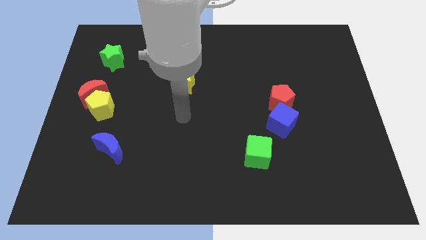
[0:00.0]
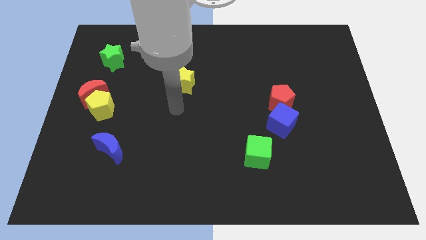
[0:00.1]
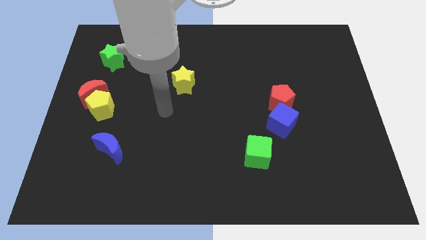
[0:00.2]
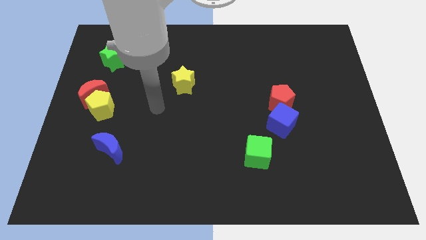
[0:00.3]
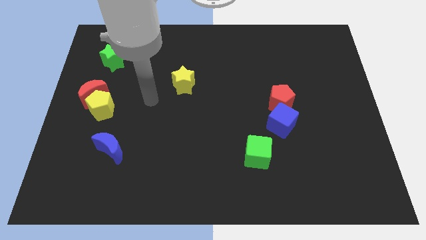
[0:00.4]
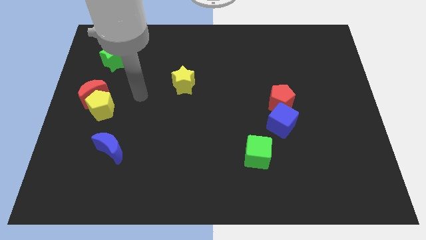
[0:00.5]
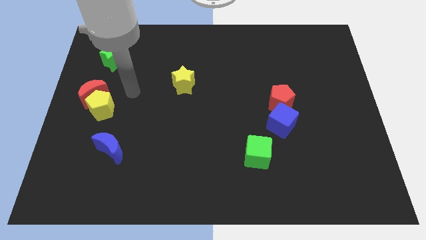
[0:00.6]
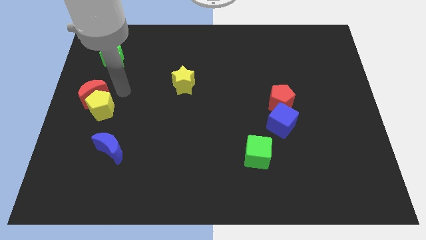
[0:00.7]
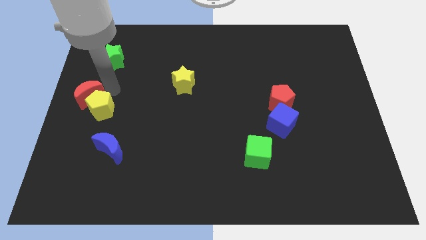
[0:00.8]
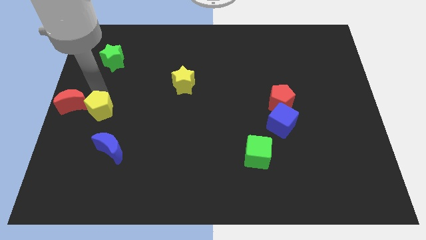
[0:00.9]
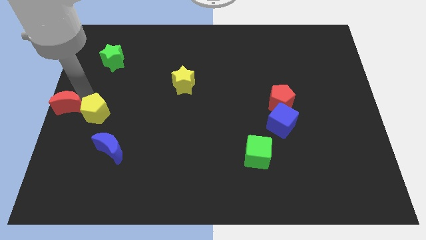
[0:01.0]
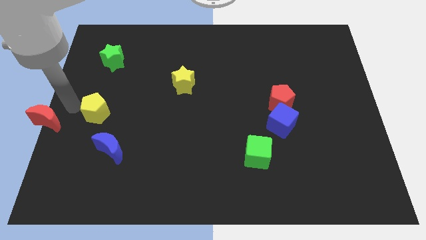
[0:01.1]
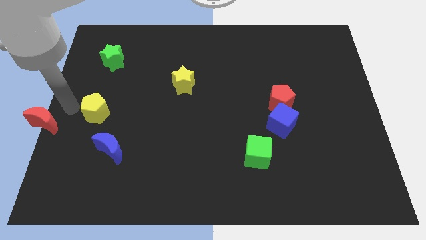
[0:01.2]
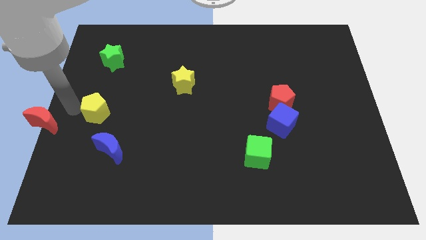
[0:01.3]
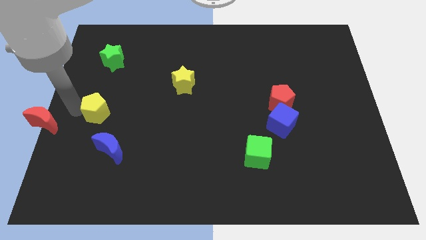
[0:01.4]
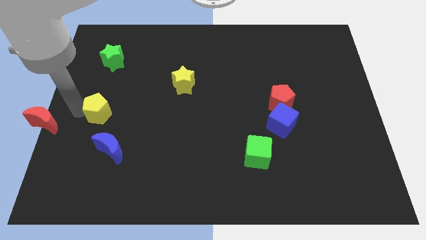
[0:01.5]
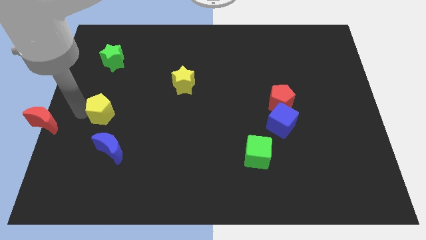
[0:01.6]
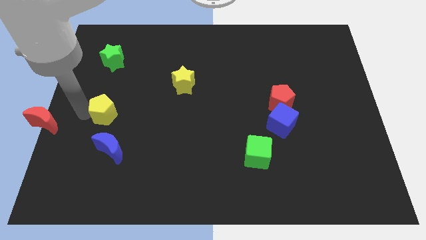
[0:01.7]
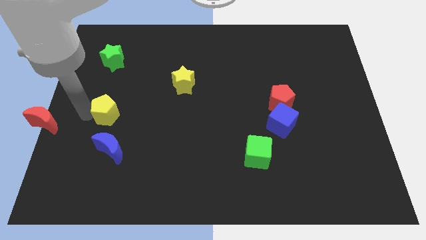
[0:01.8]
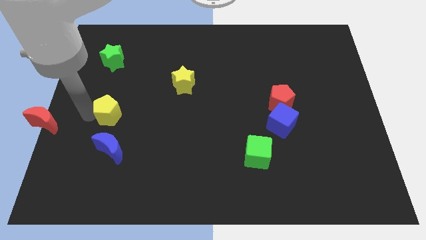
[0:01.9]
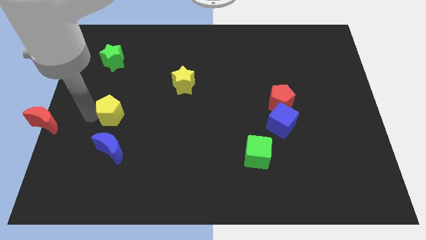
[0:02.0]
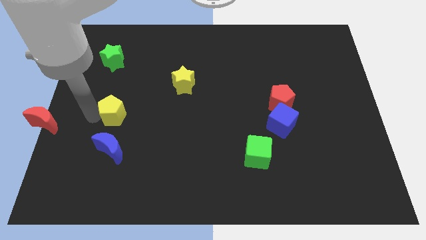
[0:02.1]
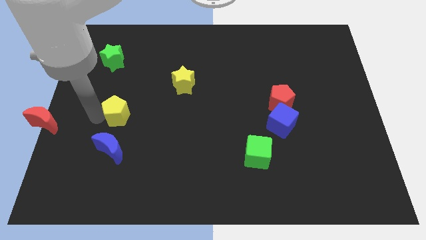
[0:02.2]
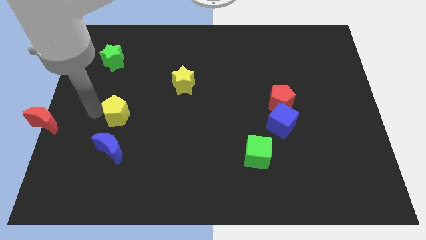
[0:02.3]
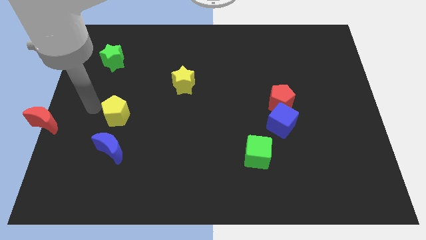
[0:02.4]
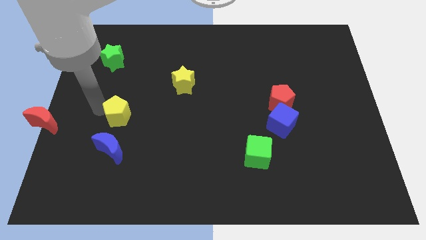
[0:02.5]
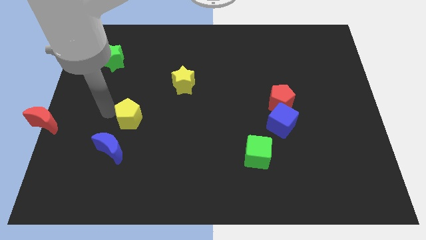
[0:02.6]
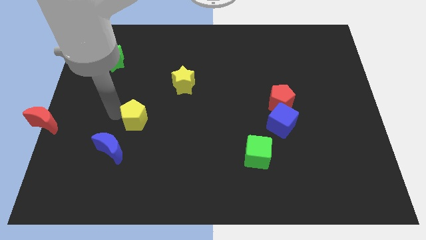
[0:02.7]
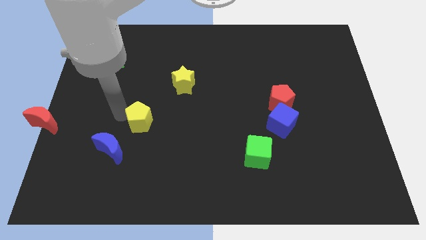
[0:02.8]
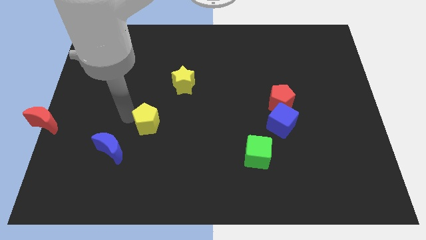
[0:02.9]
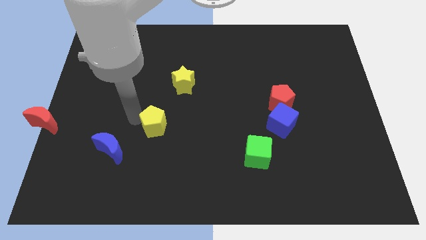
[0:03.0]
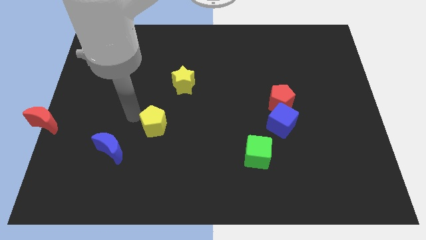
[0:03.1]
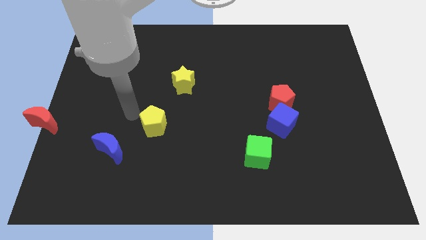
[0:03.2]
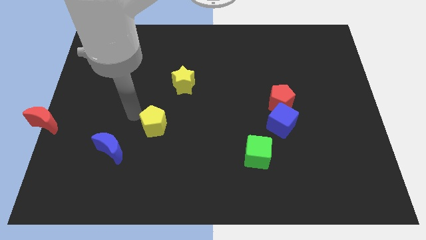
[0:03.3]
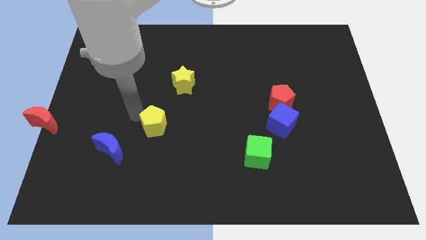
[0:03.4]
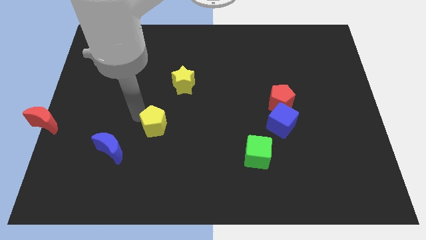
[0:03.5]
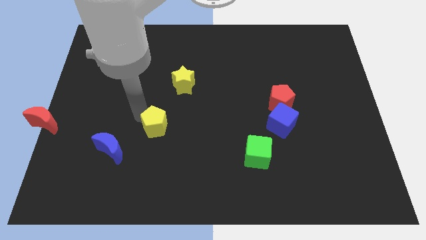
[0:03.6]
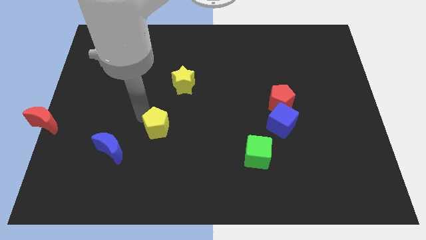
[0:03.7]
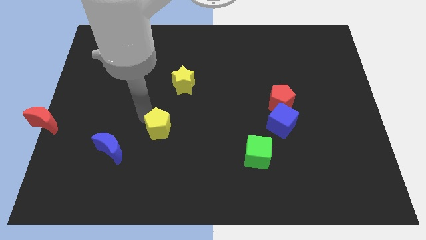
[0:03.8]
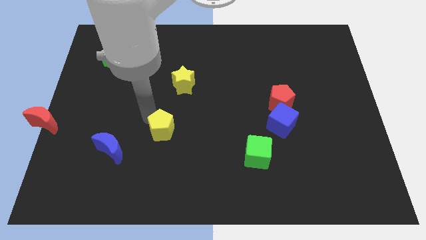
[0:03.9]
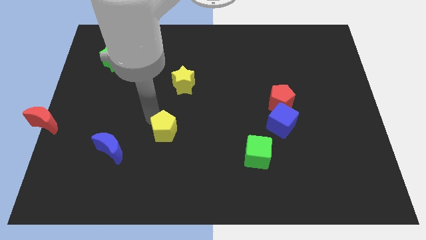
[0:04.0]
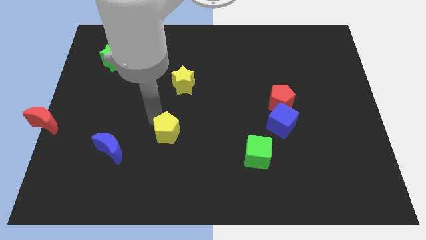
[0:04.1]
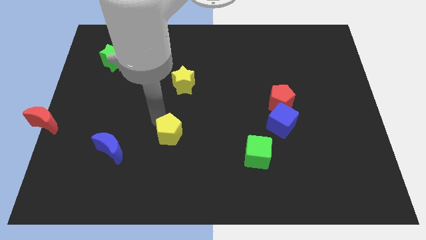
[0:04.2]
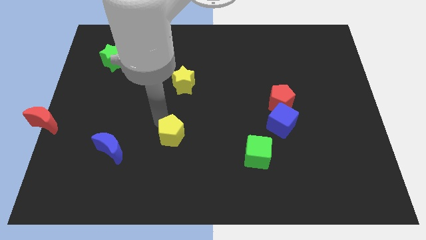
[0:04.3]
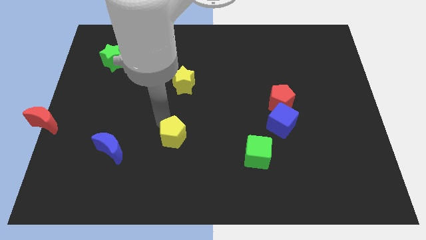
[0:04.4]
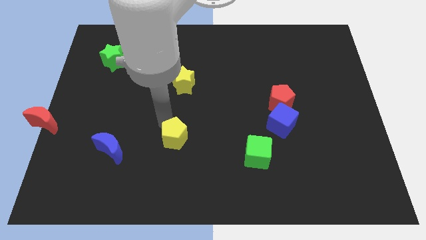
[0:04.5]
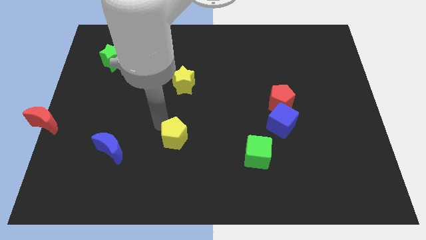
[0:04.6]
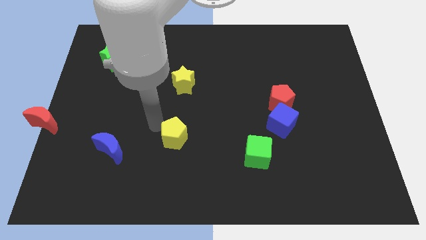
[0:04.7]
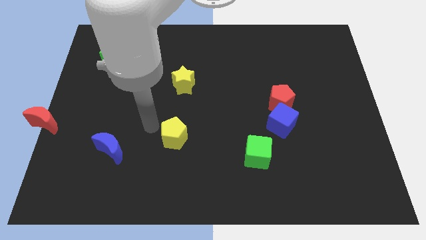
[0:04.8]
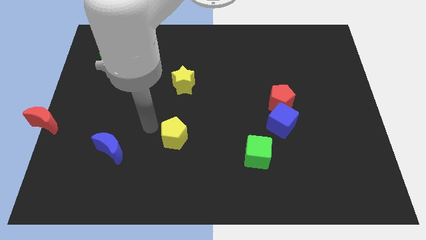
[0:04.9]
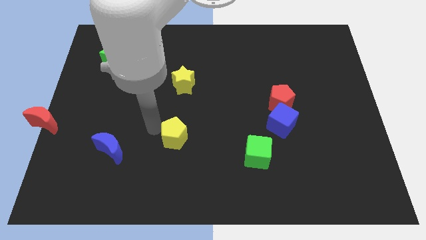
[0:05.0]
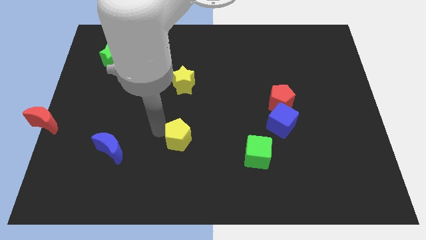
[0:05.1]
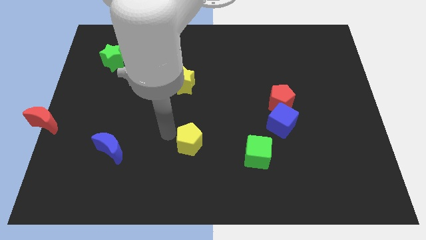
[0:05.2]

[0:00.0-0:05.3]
move the yellow pentagon just left of the green cube

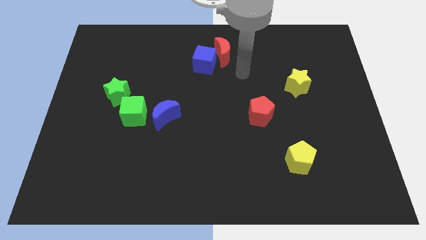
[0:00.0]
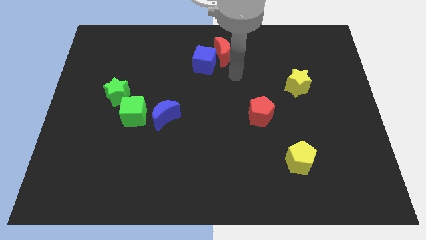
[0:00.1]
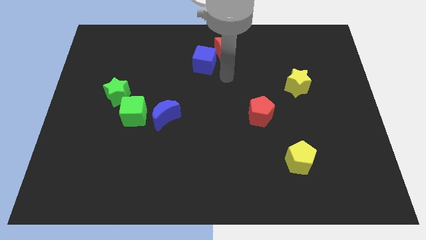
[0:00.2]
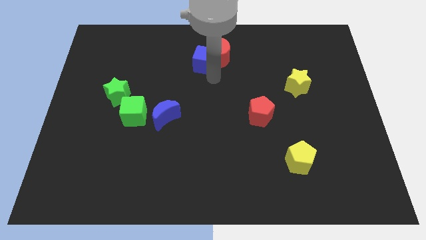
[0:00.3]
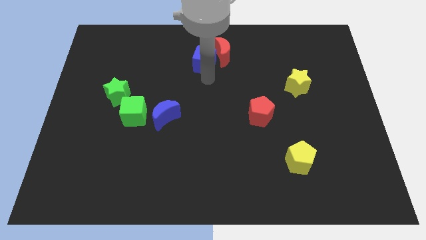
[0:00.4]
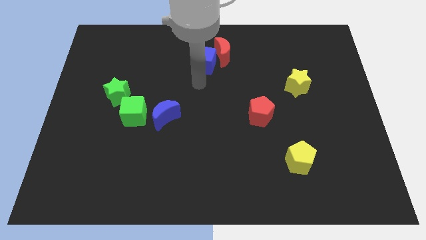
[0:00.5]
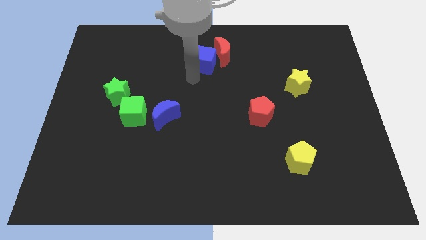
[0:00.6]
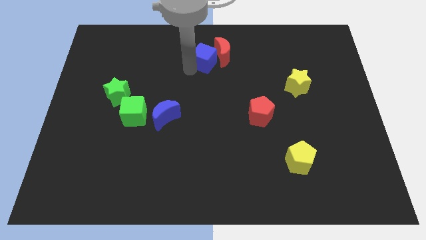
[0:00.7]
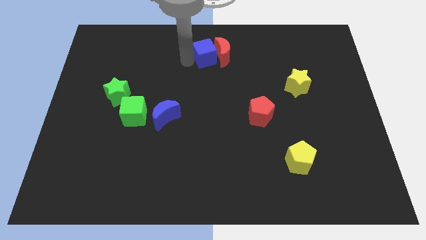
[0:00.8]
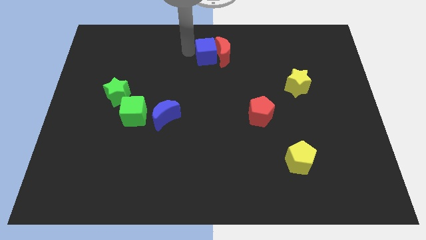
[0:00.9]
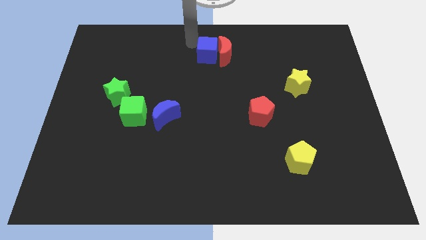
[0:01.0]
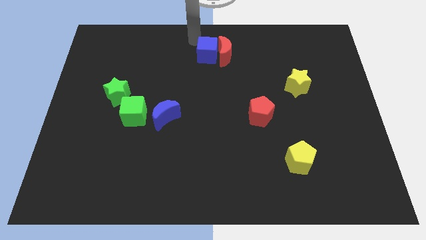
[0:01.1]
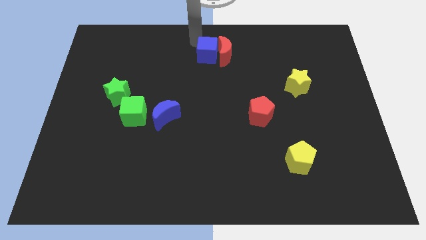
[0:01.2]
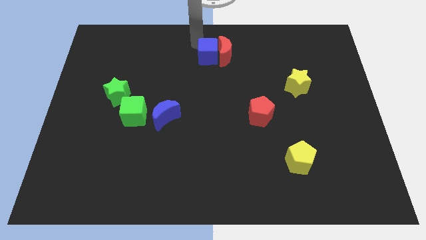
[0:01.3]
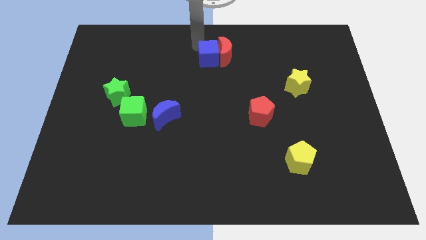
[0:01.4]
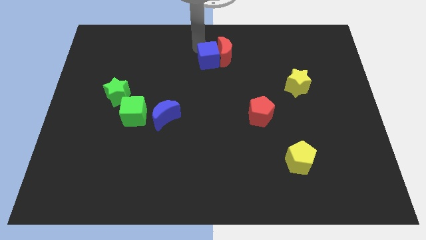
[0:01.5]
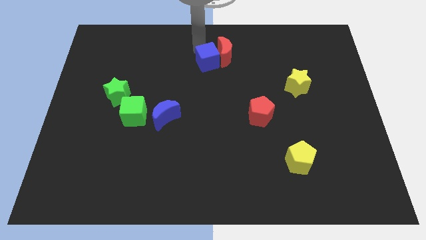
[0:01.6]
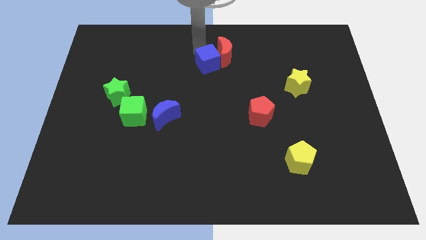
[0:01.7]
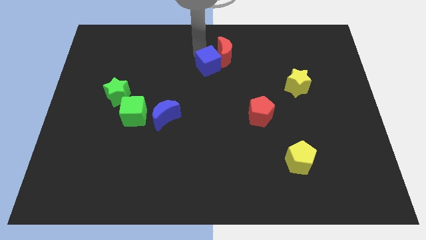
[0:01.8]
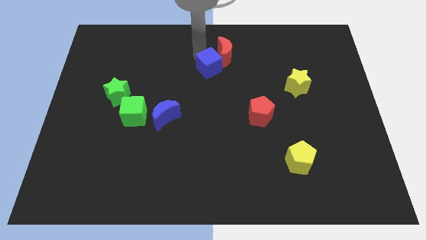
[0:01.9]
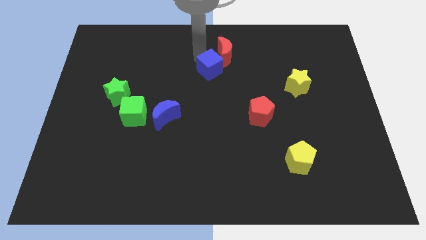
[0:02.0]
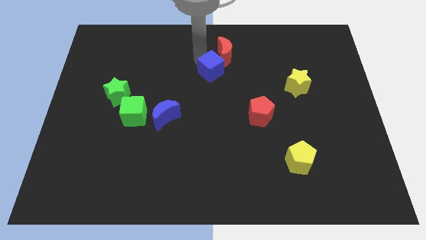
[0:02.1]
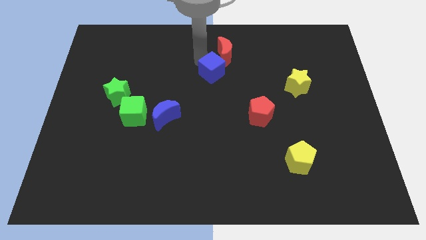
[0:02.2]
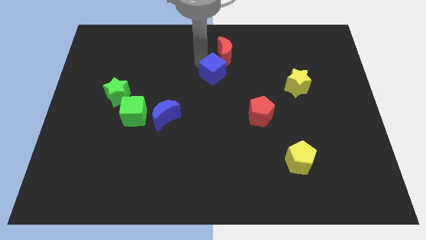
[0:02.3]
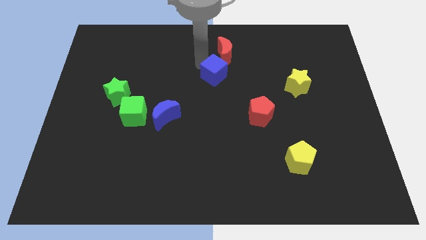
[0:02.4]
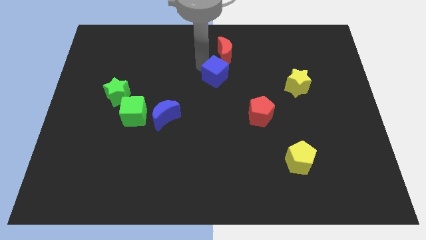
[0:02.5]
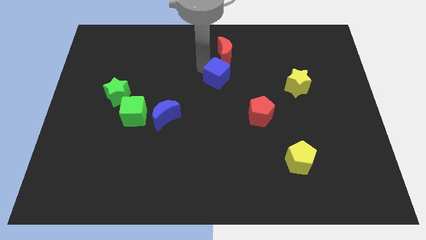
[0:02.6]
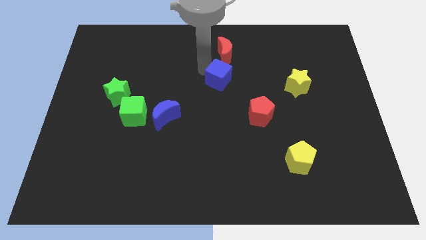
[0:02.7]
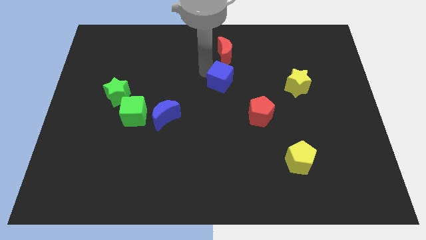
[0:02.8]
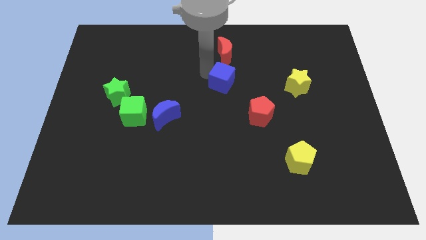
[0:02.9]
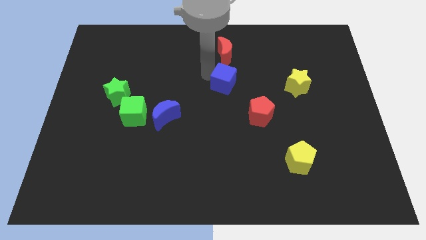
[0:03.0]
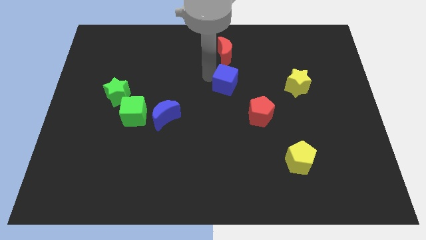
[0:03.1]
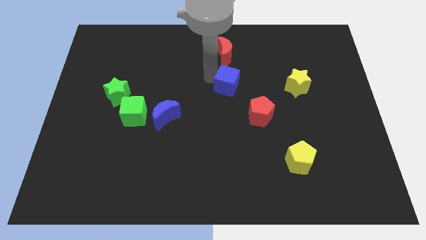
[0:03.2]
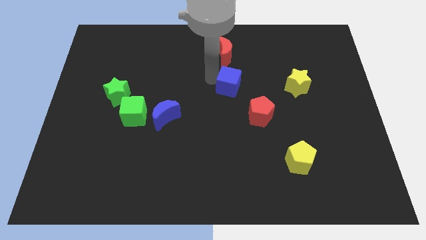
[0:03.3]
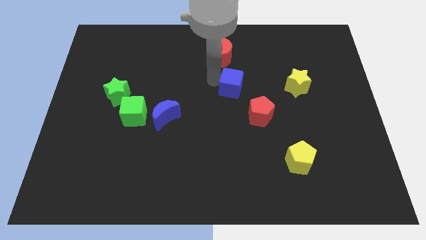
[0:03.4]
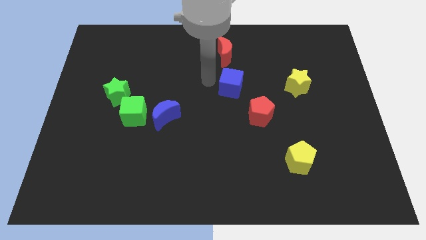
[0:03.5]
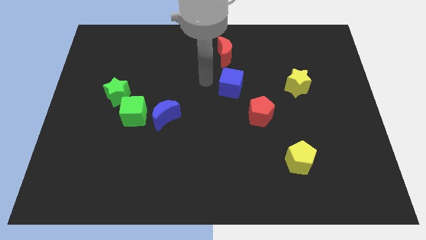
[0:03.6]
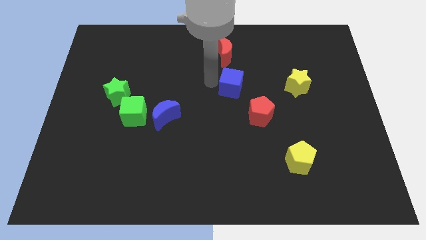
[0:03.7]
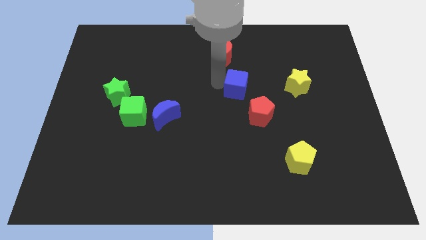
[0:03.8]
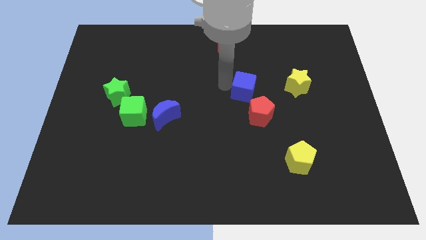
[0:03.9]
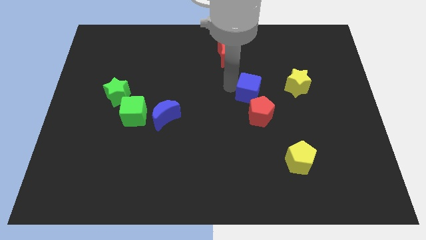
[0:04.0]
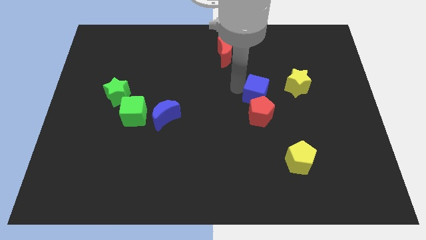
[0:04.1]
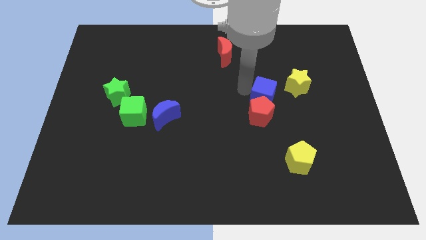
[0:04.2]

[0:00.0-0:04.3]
slide the blue cube to the bottom left side of the yellow star
